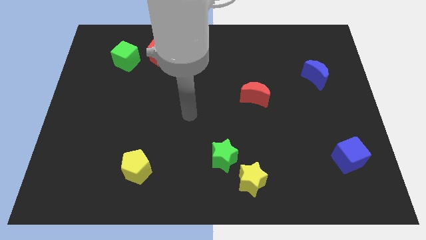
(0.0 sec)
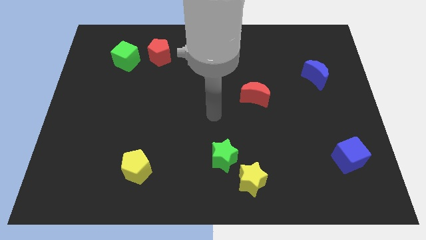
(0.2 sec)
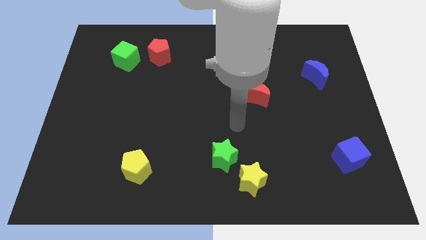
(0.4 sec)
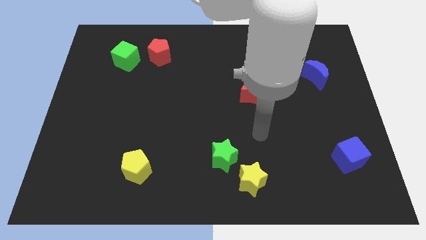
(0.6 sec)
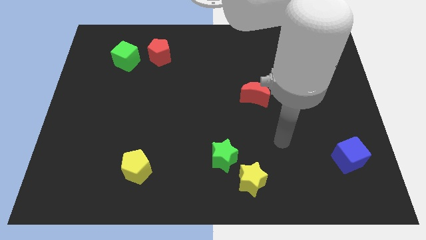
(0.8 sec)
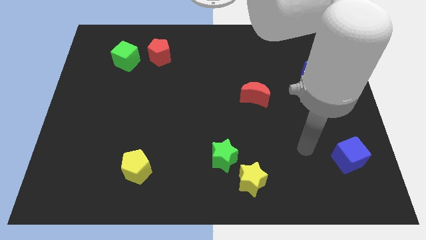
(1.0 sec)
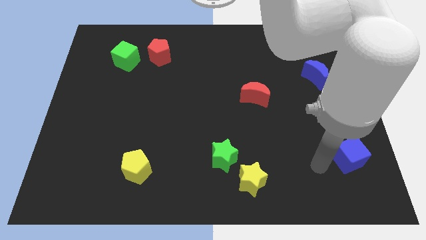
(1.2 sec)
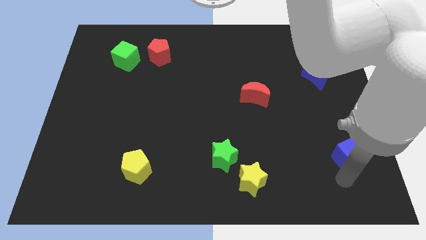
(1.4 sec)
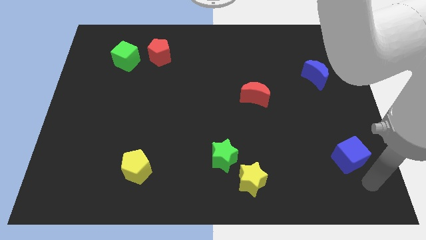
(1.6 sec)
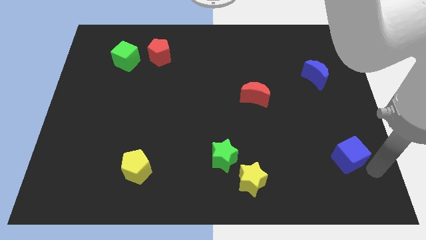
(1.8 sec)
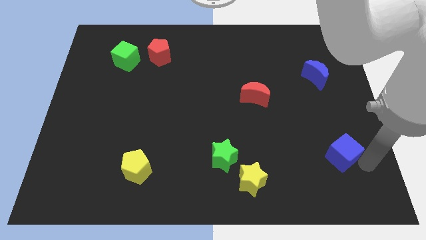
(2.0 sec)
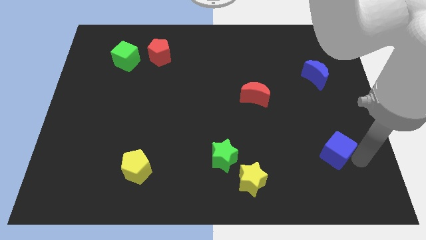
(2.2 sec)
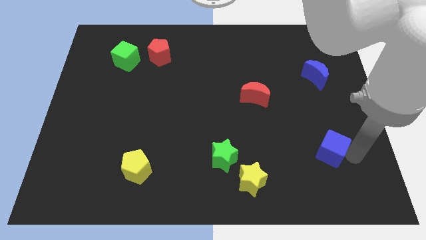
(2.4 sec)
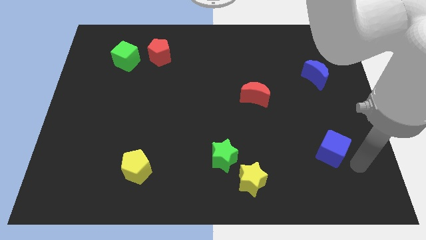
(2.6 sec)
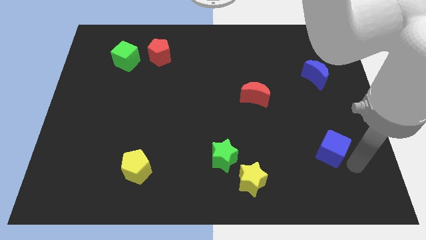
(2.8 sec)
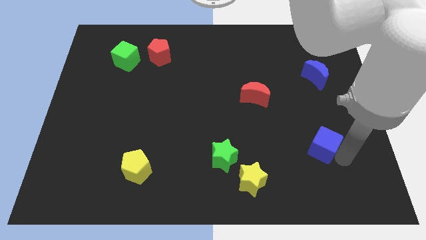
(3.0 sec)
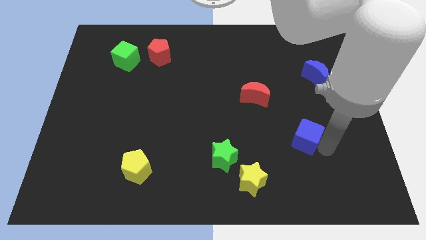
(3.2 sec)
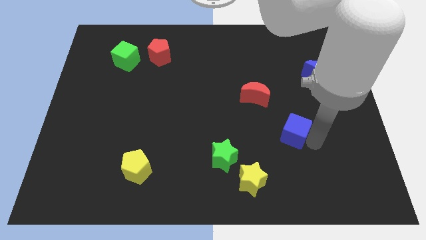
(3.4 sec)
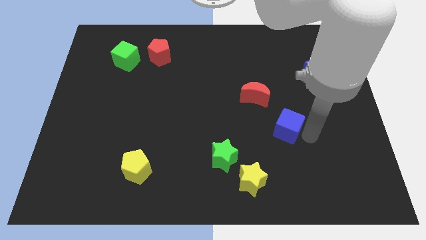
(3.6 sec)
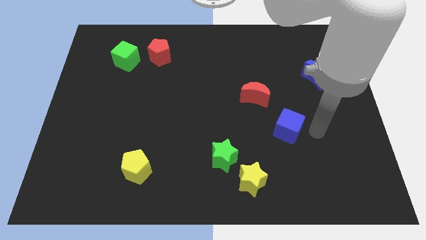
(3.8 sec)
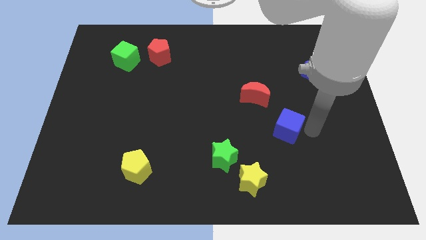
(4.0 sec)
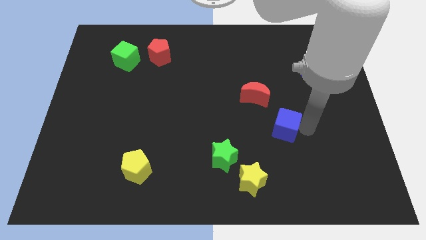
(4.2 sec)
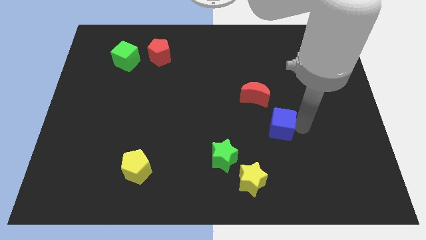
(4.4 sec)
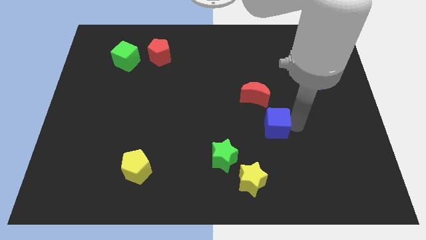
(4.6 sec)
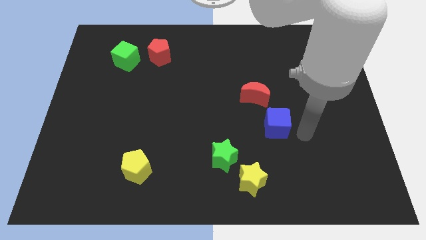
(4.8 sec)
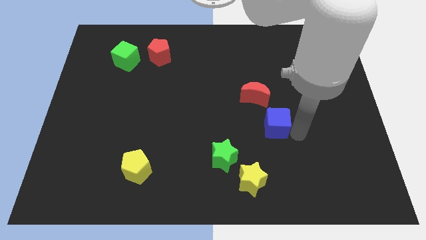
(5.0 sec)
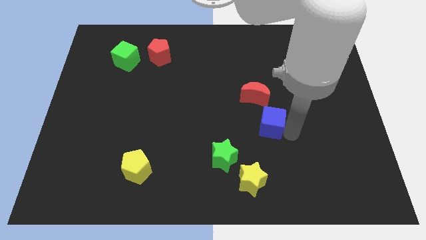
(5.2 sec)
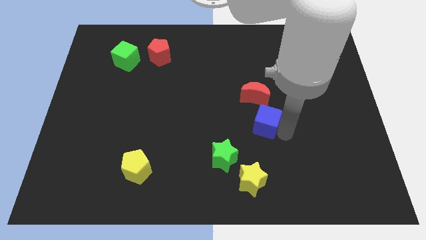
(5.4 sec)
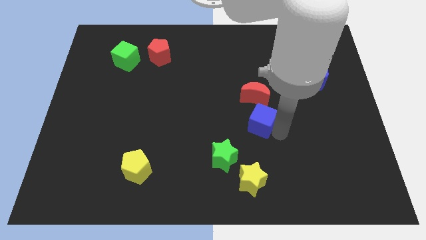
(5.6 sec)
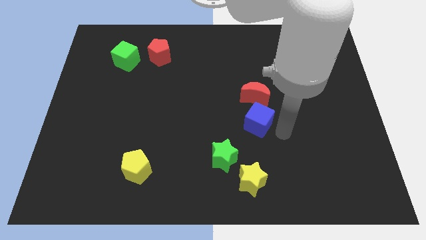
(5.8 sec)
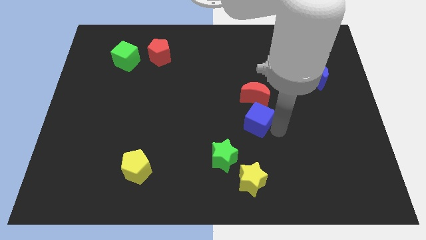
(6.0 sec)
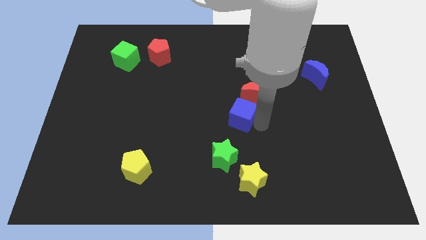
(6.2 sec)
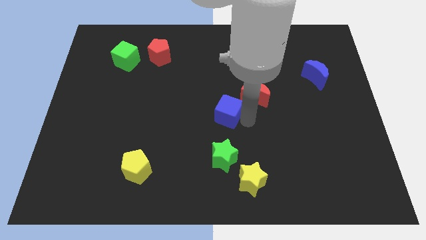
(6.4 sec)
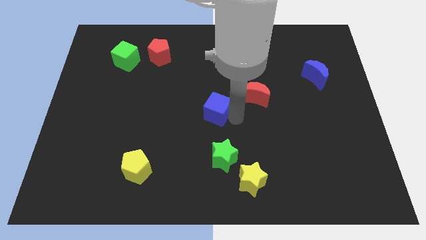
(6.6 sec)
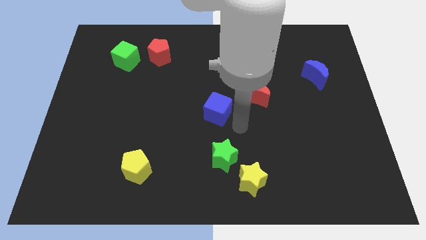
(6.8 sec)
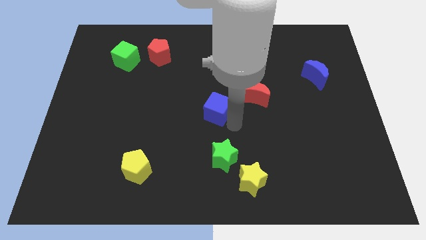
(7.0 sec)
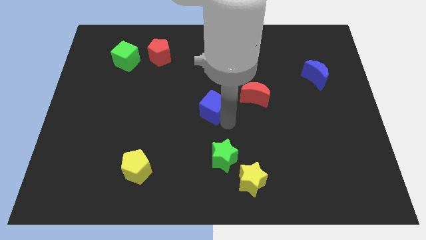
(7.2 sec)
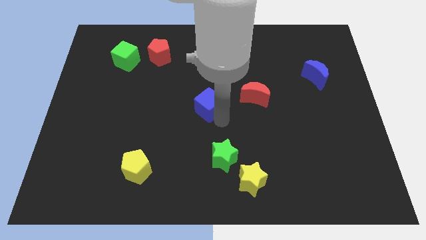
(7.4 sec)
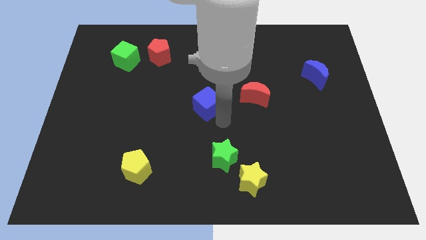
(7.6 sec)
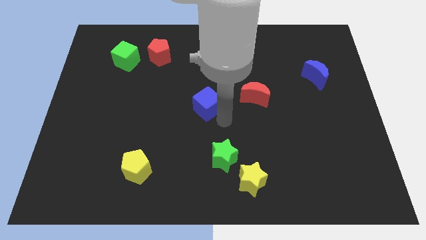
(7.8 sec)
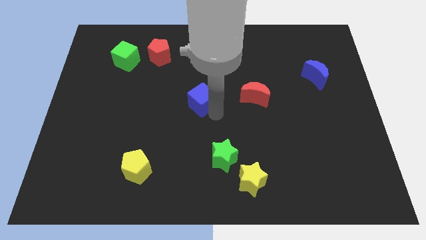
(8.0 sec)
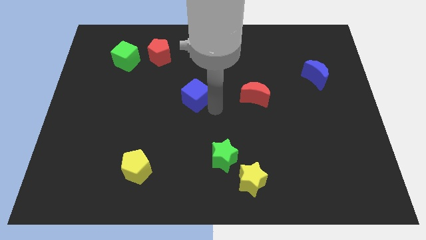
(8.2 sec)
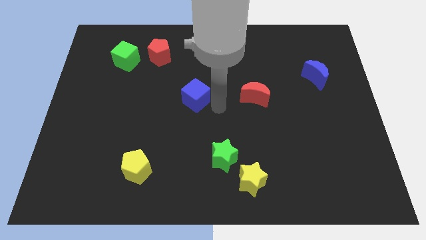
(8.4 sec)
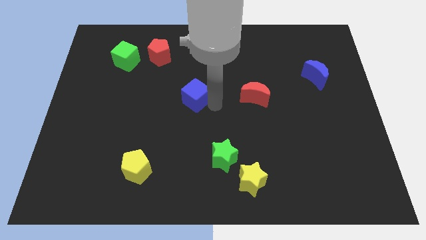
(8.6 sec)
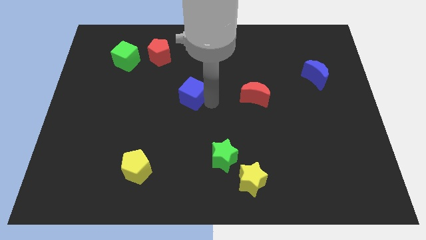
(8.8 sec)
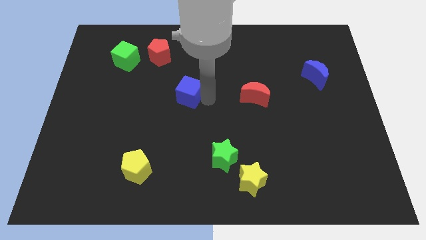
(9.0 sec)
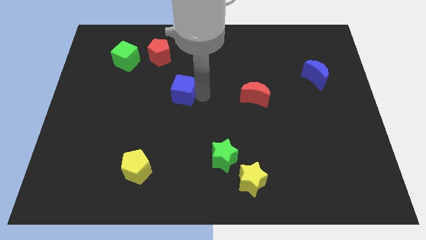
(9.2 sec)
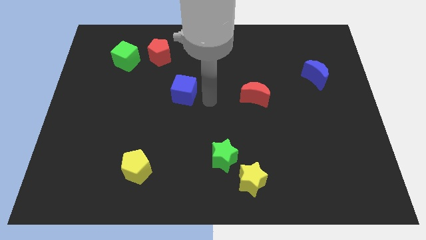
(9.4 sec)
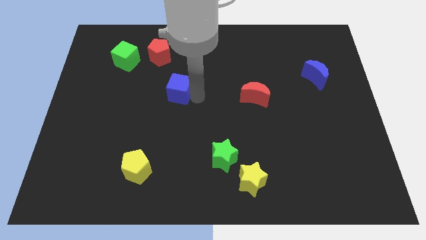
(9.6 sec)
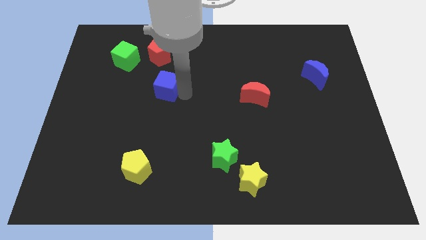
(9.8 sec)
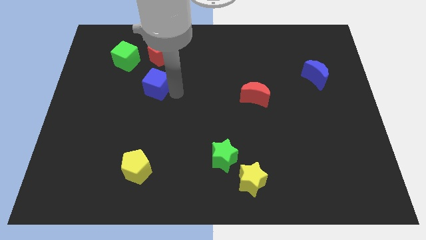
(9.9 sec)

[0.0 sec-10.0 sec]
move the blue cube to the bottom right of the green cube

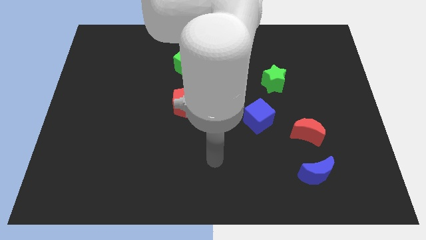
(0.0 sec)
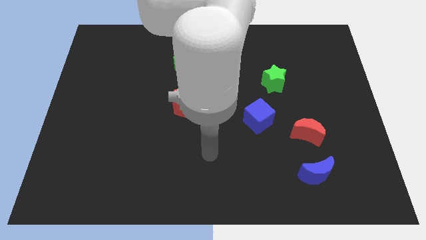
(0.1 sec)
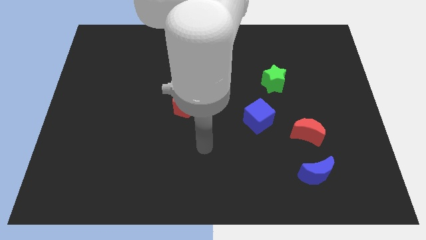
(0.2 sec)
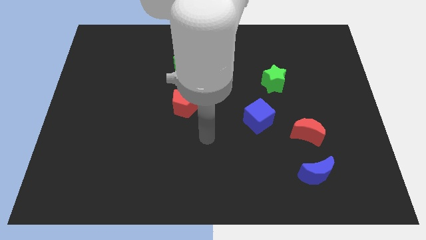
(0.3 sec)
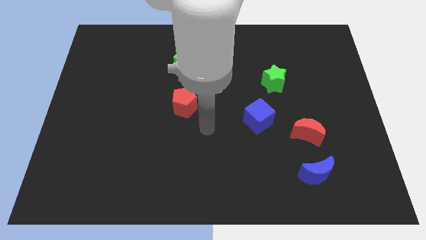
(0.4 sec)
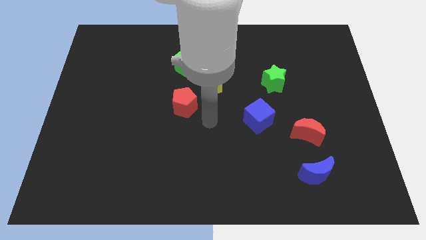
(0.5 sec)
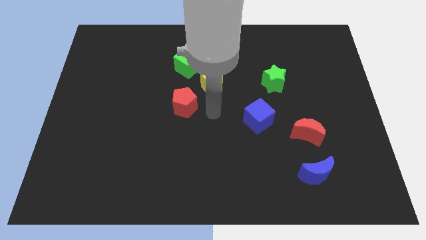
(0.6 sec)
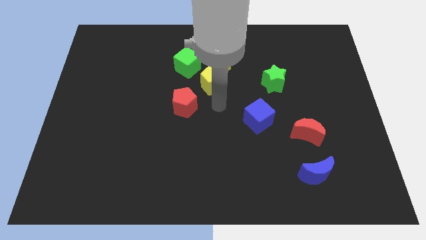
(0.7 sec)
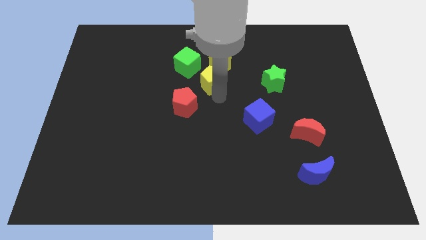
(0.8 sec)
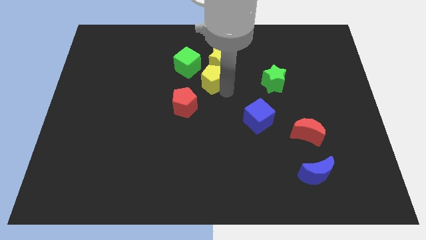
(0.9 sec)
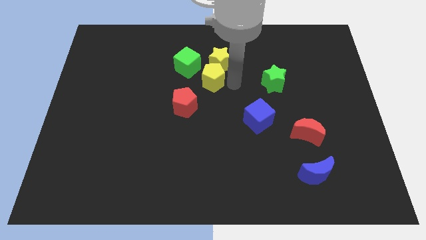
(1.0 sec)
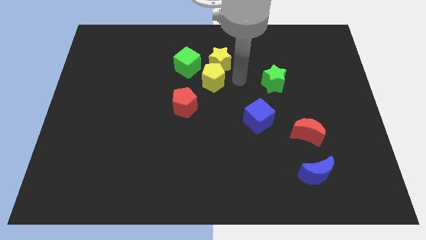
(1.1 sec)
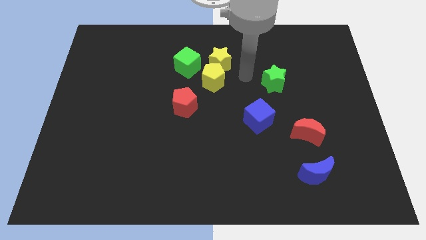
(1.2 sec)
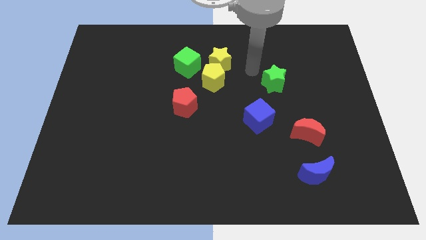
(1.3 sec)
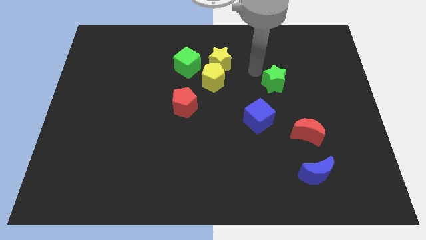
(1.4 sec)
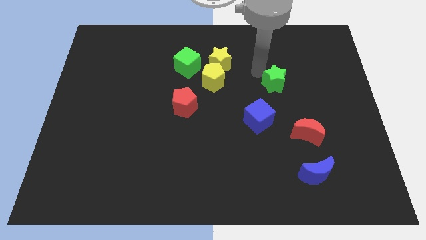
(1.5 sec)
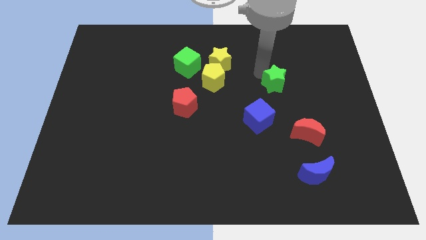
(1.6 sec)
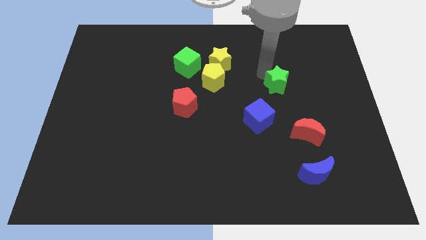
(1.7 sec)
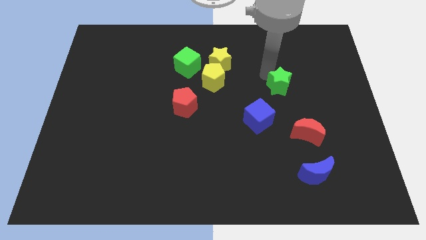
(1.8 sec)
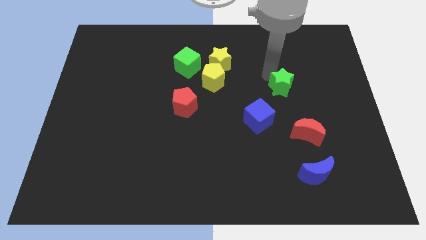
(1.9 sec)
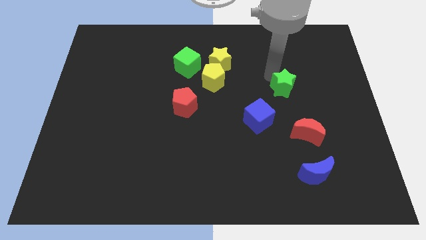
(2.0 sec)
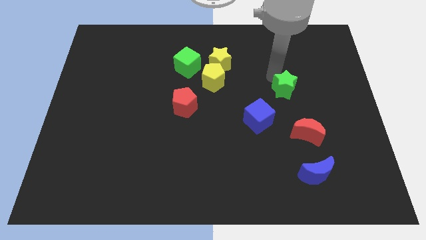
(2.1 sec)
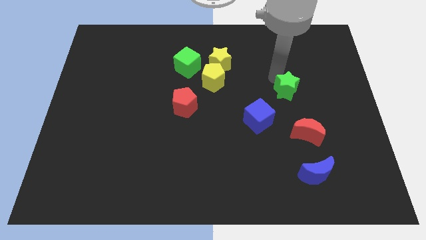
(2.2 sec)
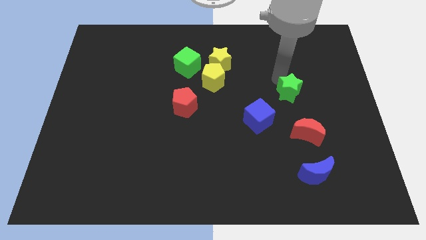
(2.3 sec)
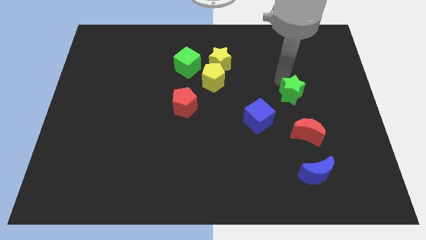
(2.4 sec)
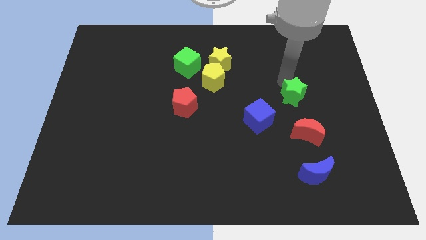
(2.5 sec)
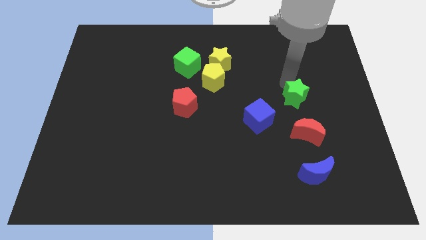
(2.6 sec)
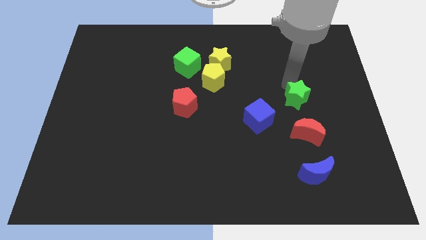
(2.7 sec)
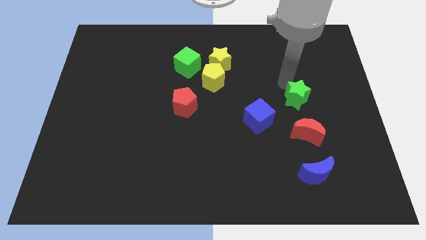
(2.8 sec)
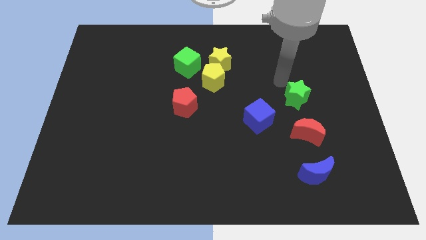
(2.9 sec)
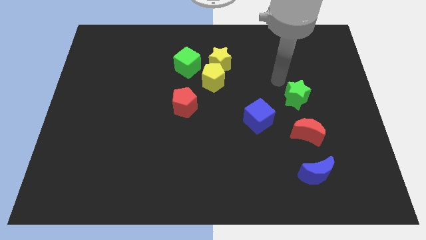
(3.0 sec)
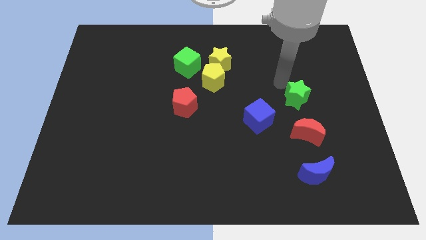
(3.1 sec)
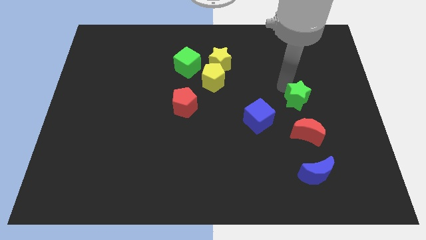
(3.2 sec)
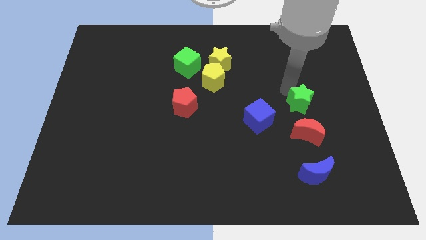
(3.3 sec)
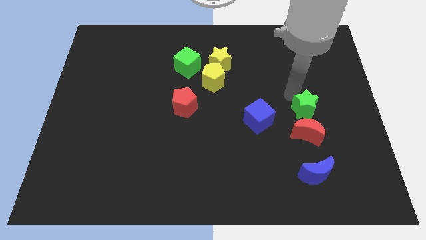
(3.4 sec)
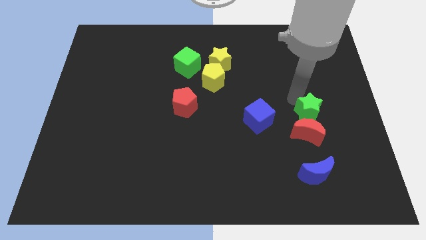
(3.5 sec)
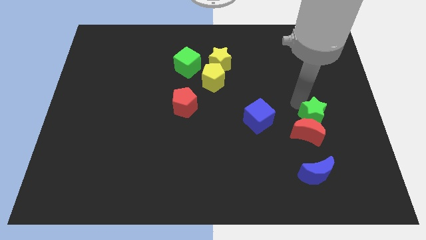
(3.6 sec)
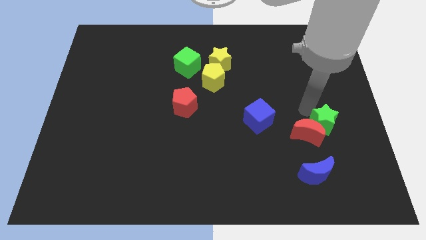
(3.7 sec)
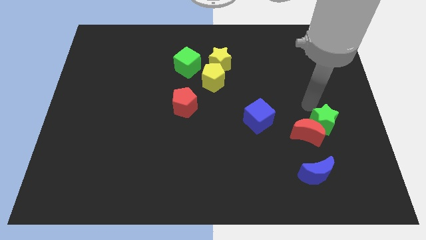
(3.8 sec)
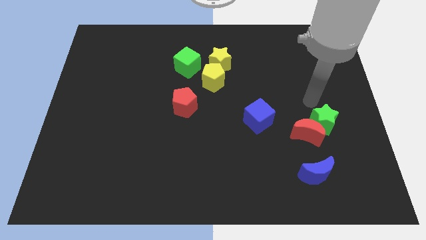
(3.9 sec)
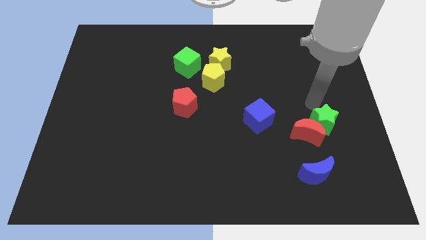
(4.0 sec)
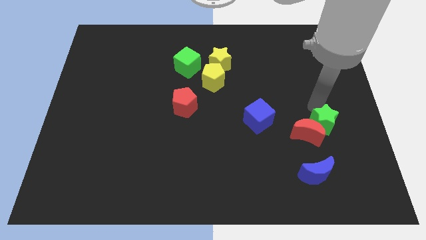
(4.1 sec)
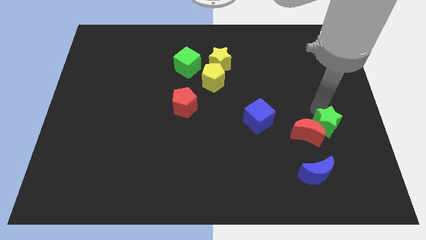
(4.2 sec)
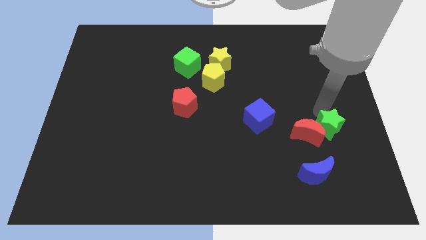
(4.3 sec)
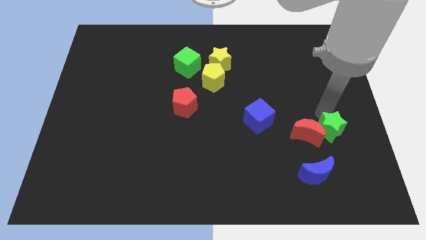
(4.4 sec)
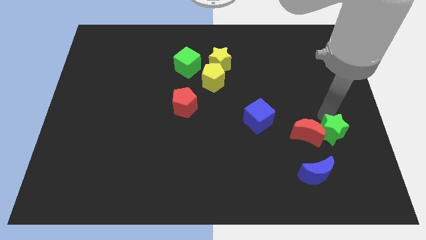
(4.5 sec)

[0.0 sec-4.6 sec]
slide the green star to the top right of the blue moon
